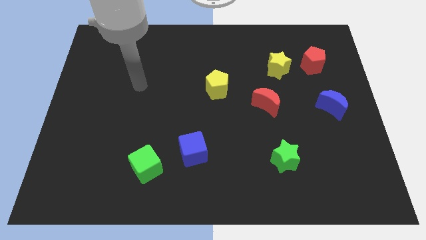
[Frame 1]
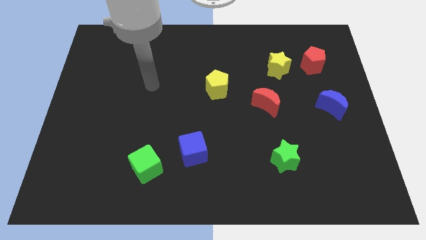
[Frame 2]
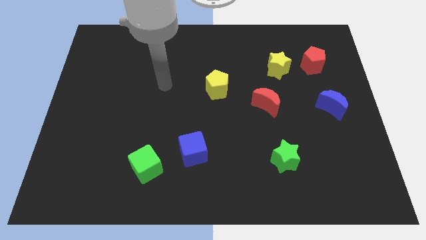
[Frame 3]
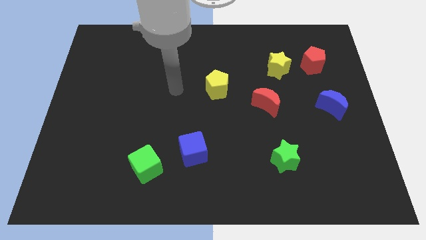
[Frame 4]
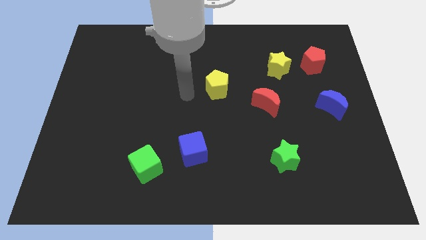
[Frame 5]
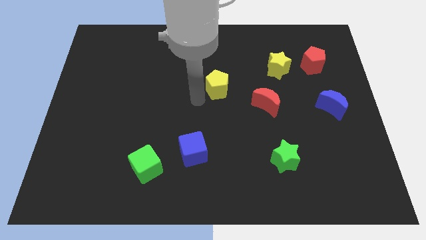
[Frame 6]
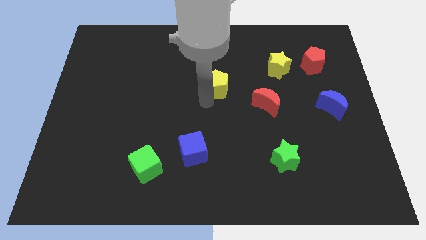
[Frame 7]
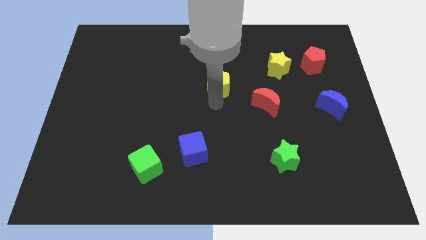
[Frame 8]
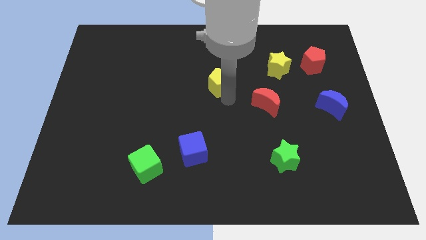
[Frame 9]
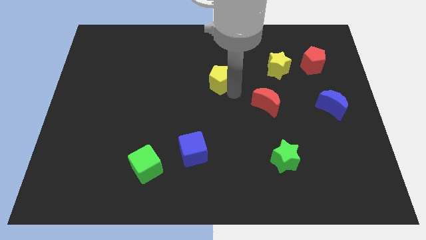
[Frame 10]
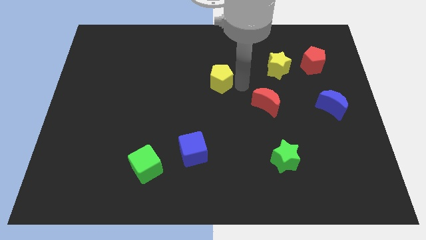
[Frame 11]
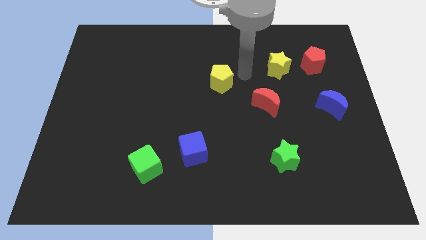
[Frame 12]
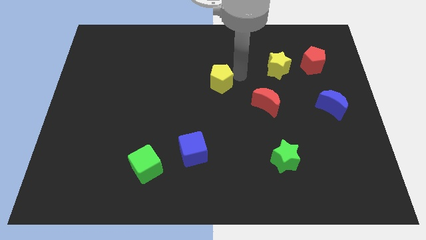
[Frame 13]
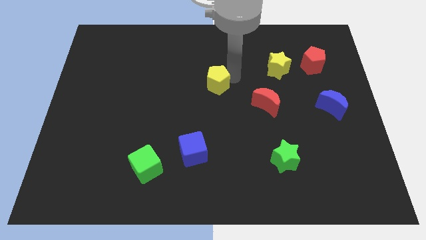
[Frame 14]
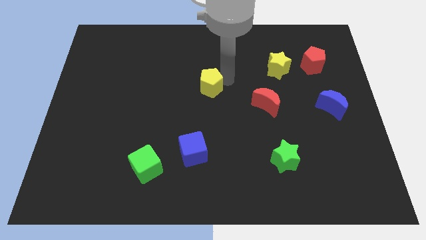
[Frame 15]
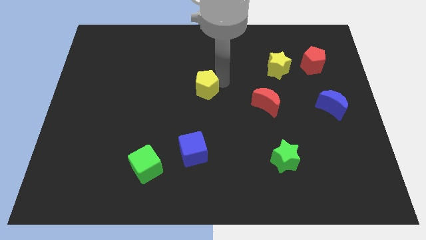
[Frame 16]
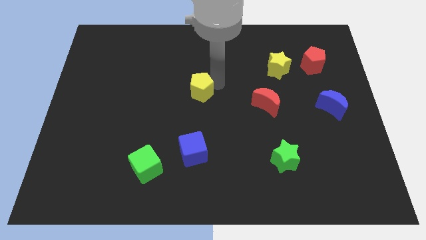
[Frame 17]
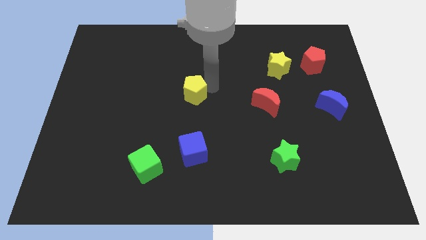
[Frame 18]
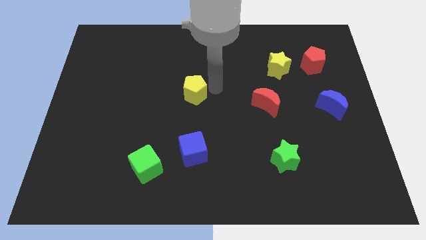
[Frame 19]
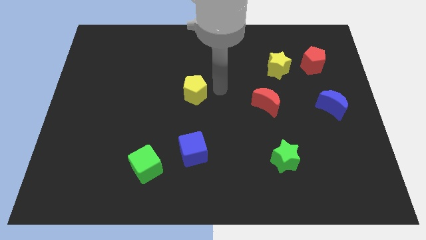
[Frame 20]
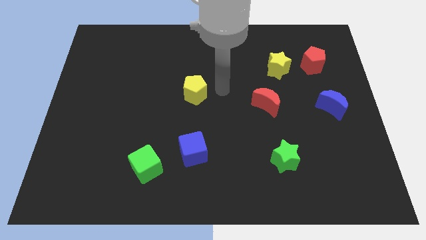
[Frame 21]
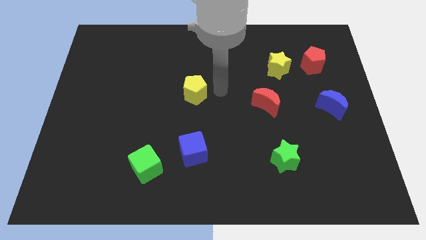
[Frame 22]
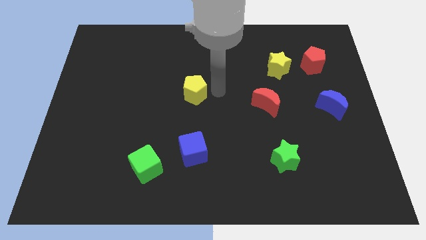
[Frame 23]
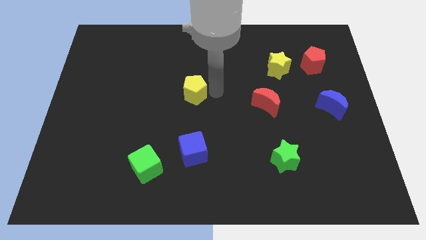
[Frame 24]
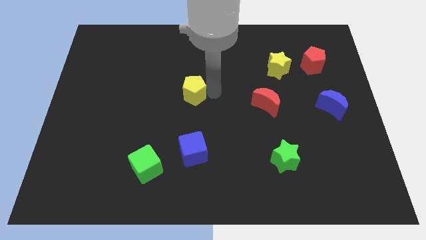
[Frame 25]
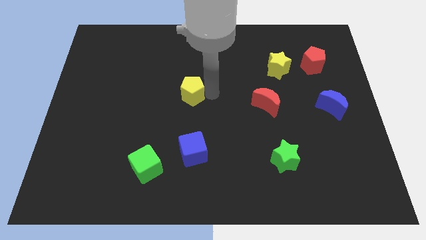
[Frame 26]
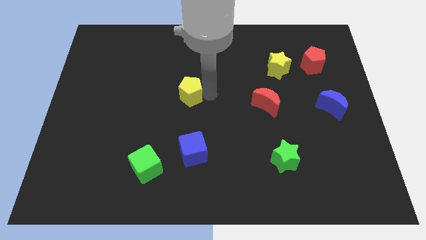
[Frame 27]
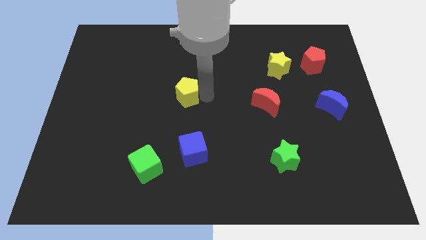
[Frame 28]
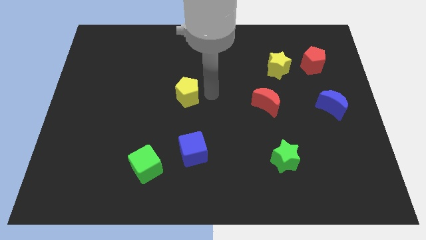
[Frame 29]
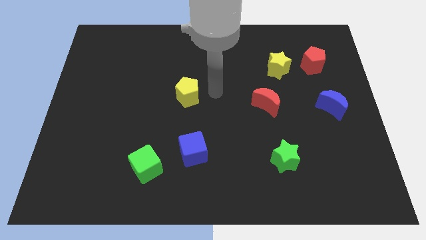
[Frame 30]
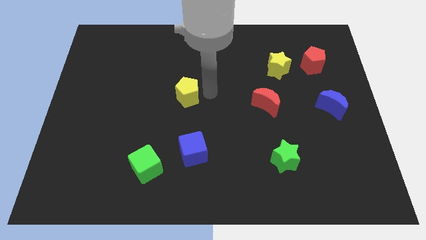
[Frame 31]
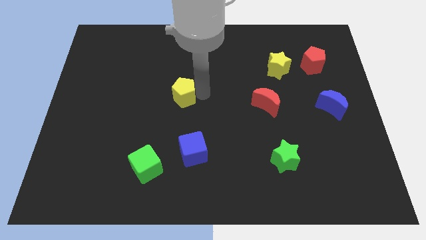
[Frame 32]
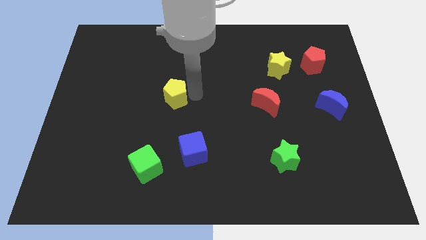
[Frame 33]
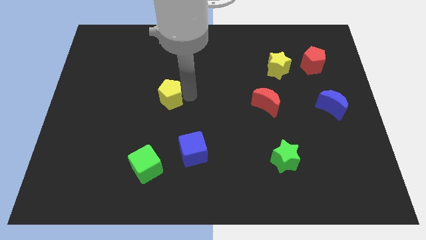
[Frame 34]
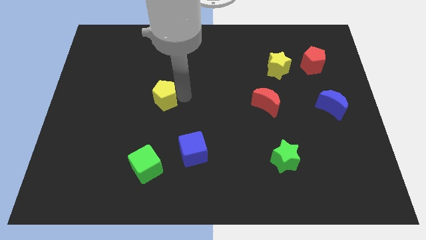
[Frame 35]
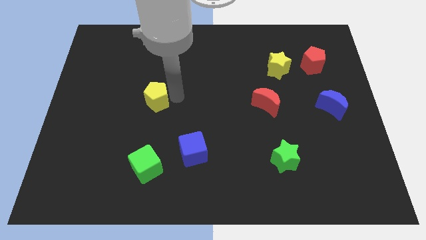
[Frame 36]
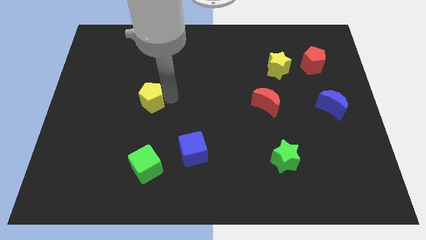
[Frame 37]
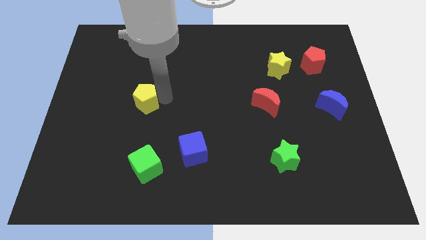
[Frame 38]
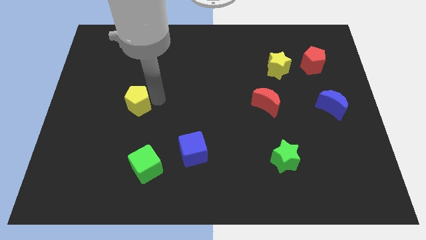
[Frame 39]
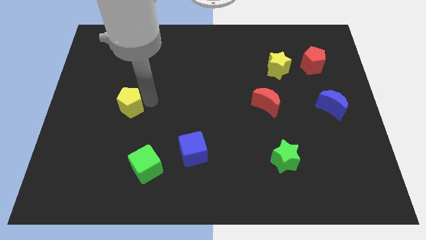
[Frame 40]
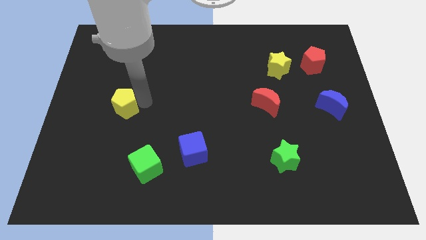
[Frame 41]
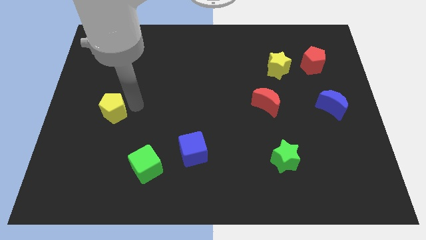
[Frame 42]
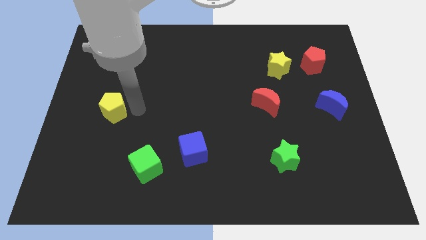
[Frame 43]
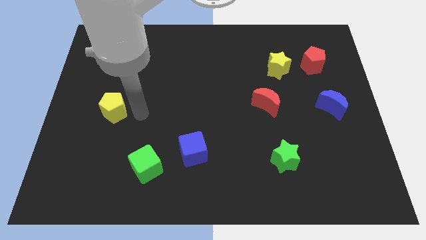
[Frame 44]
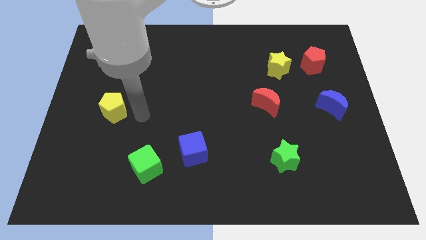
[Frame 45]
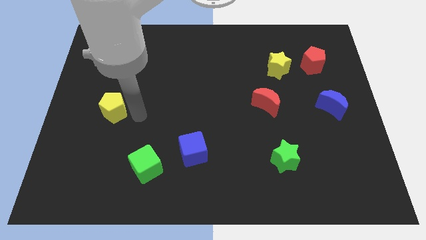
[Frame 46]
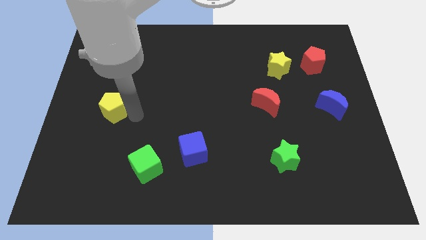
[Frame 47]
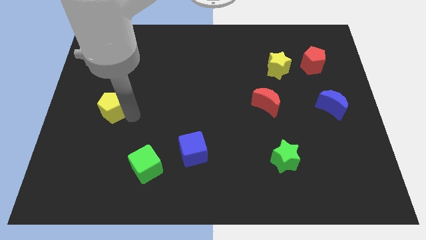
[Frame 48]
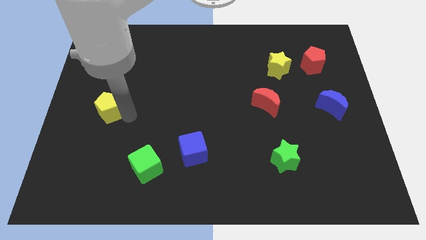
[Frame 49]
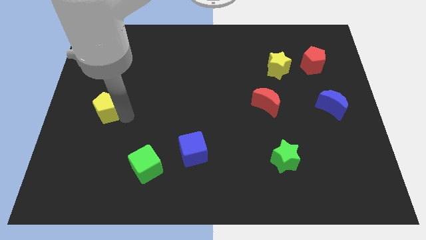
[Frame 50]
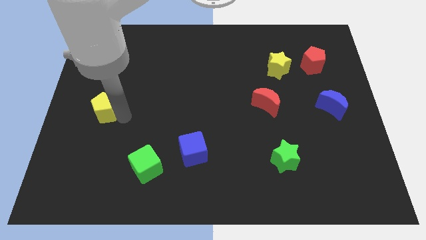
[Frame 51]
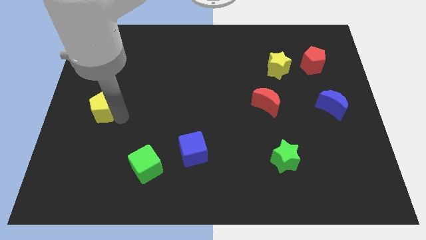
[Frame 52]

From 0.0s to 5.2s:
move the yellow pentagon to the left side of the board

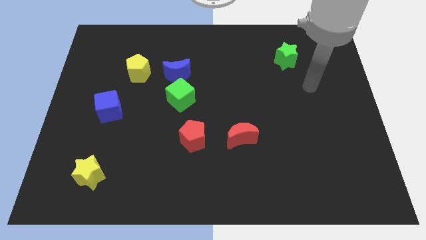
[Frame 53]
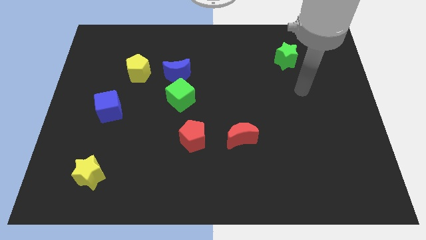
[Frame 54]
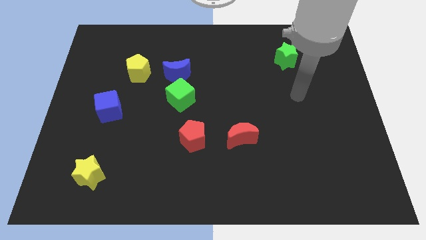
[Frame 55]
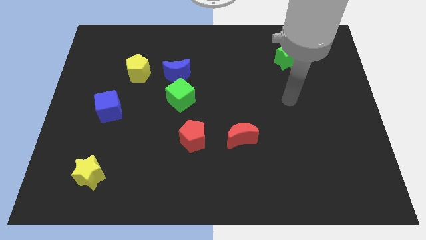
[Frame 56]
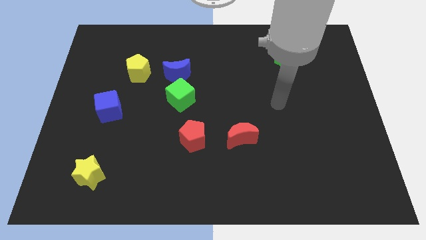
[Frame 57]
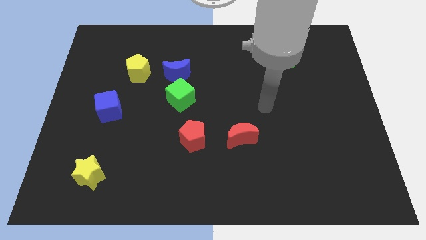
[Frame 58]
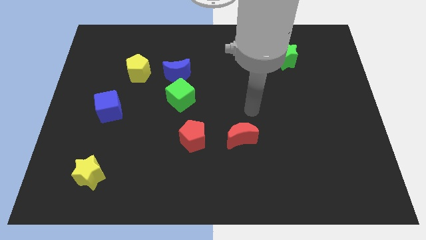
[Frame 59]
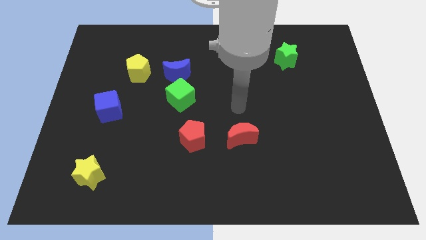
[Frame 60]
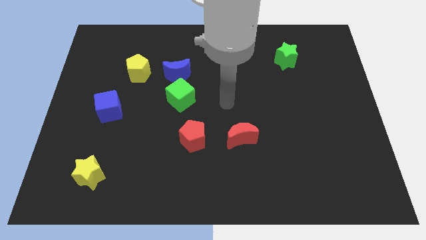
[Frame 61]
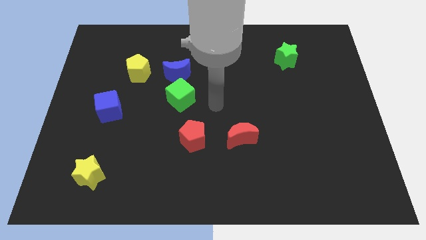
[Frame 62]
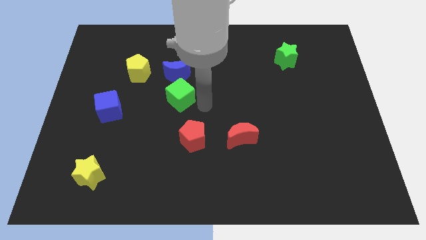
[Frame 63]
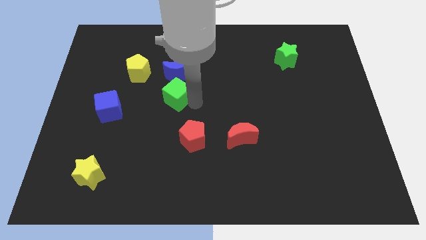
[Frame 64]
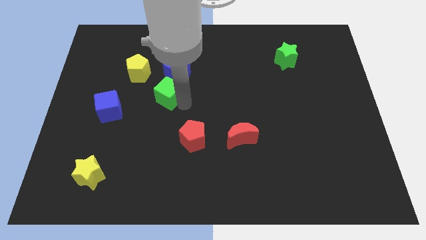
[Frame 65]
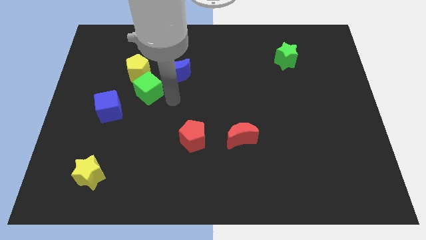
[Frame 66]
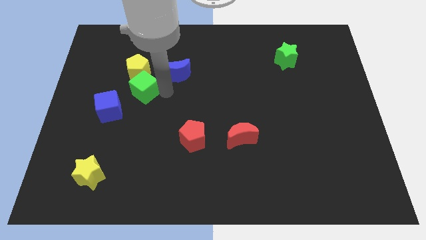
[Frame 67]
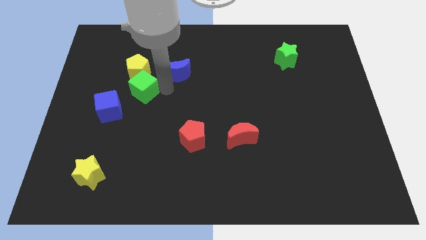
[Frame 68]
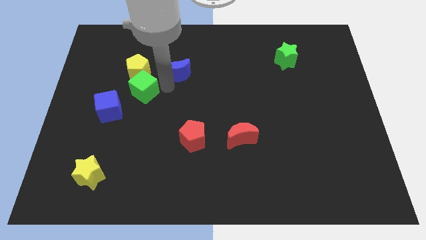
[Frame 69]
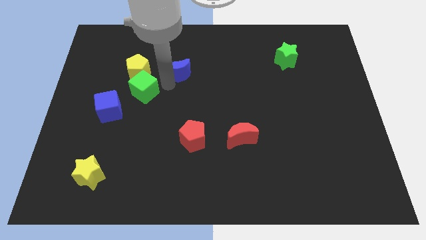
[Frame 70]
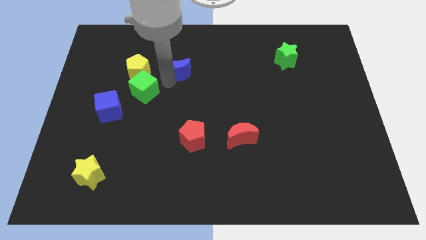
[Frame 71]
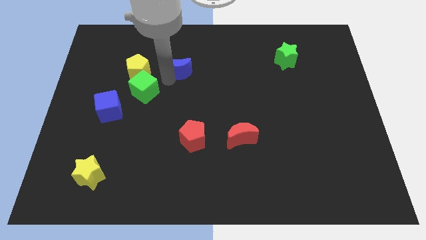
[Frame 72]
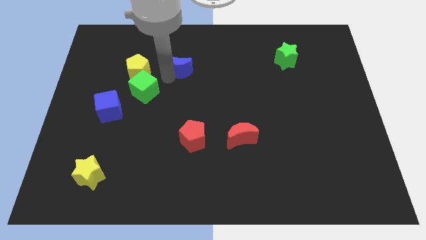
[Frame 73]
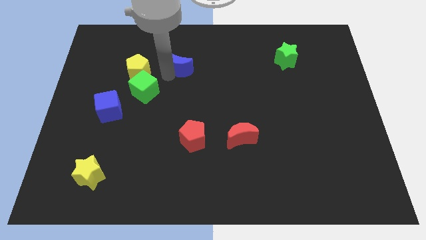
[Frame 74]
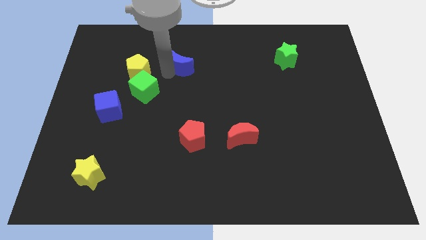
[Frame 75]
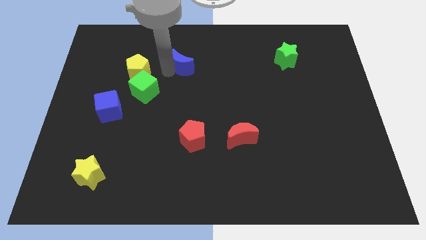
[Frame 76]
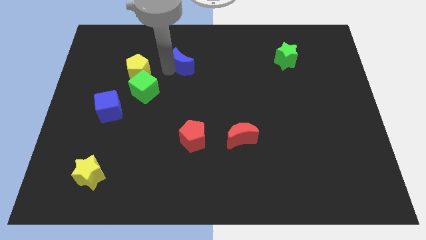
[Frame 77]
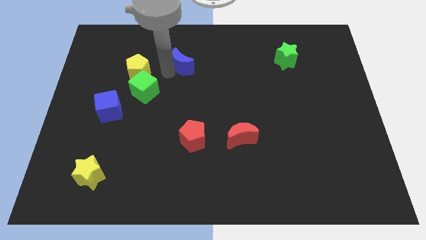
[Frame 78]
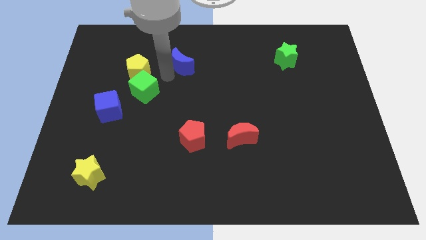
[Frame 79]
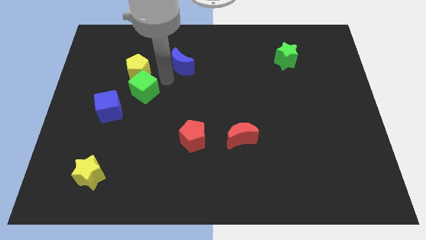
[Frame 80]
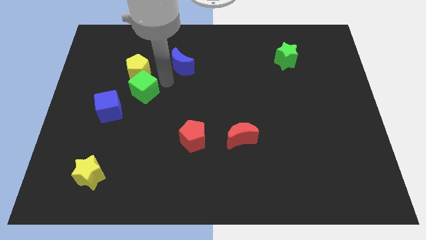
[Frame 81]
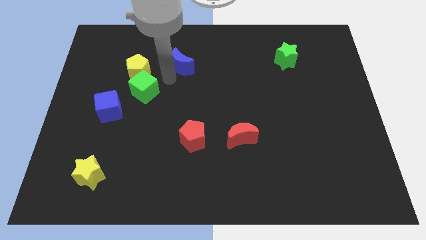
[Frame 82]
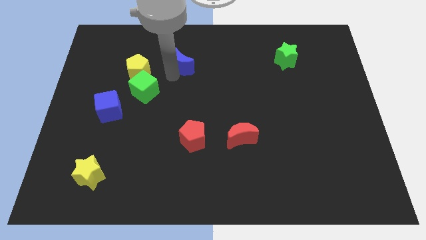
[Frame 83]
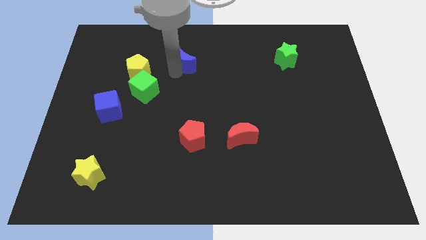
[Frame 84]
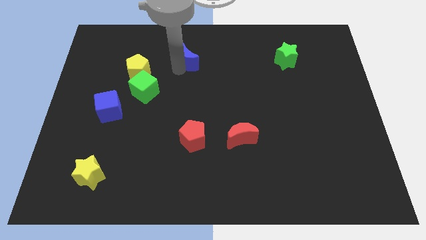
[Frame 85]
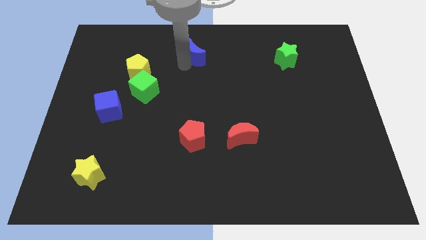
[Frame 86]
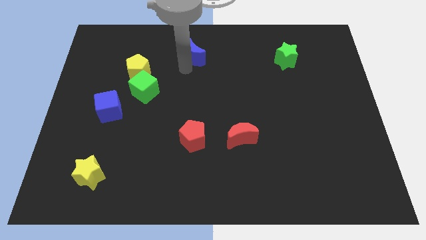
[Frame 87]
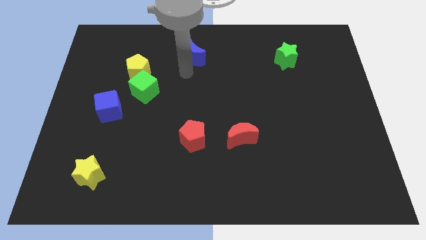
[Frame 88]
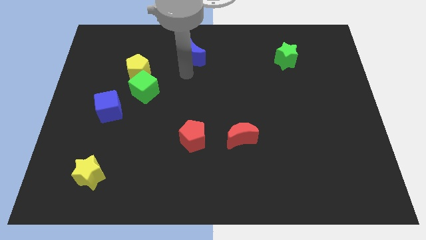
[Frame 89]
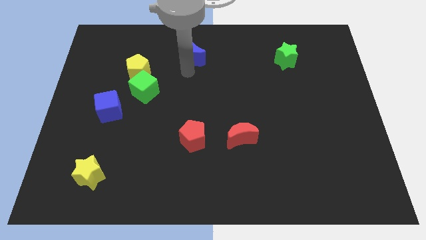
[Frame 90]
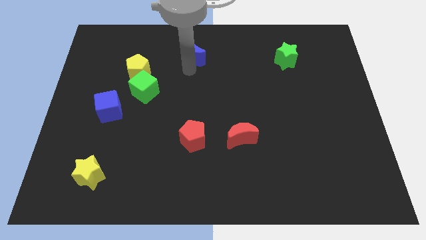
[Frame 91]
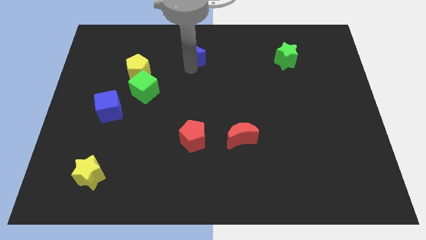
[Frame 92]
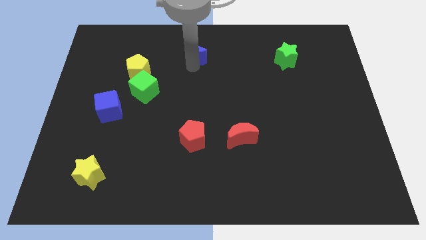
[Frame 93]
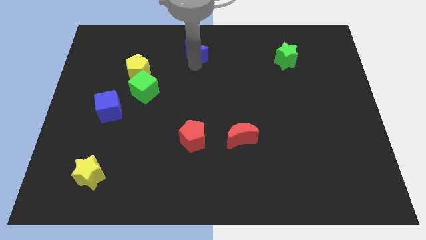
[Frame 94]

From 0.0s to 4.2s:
put the blue moon to the towards your base
